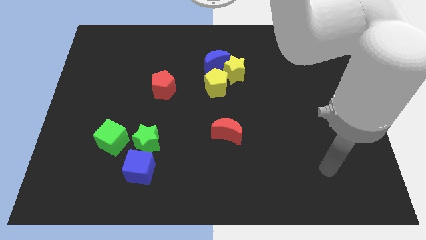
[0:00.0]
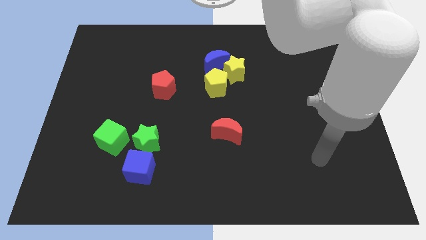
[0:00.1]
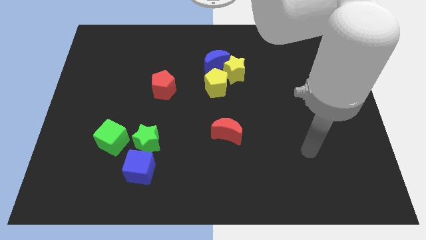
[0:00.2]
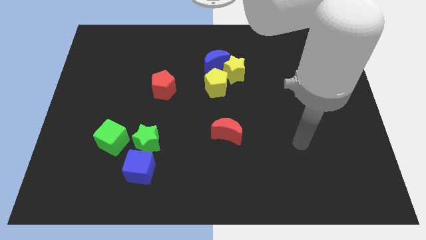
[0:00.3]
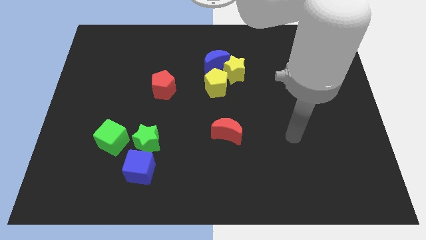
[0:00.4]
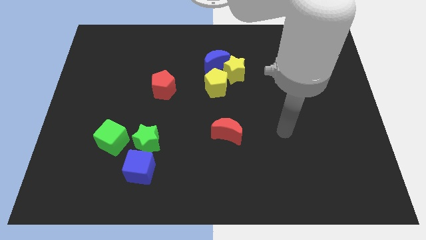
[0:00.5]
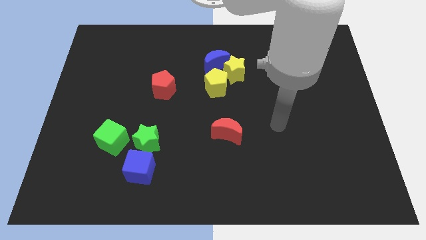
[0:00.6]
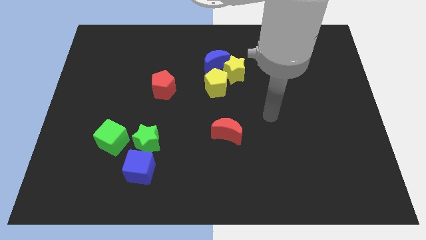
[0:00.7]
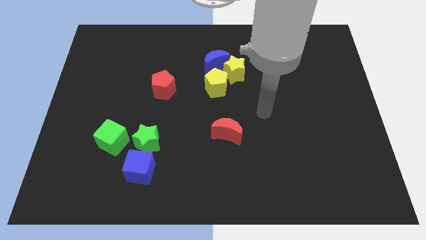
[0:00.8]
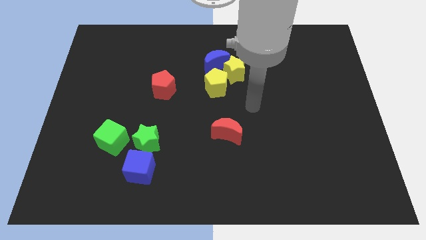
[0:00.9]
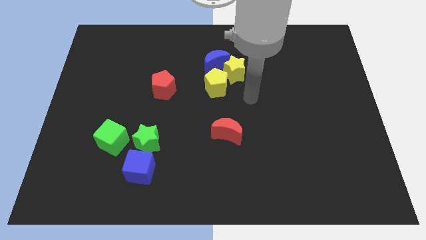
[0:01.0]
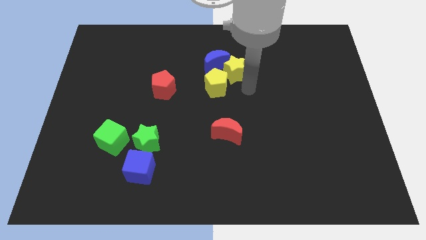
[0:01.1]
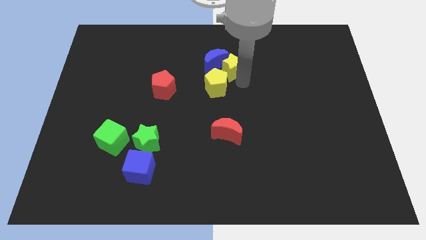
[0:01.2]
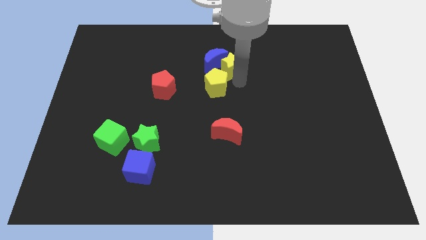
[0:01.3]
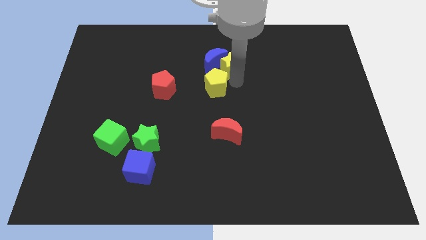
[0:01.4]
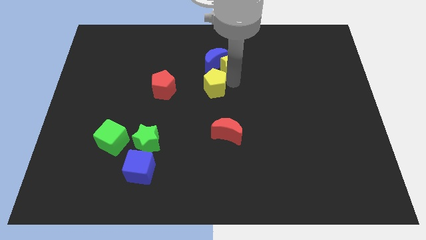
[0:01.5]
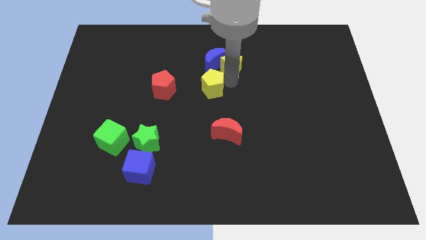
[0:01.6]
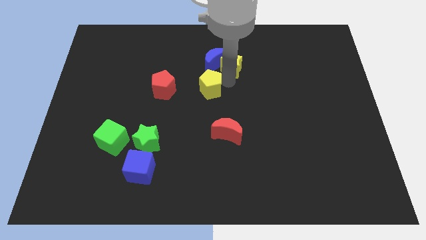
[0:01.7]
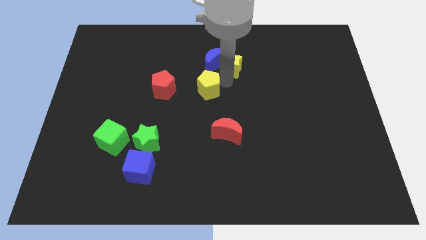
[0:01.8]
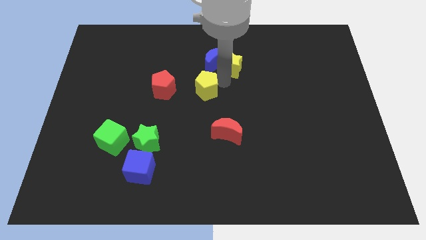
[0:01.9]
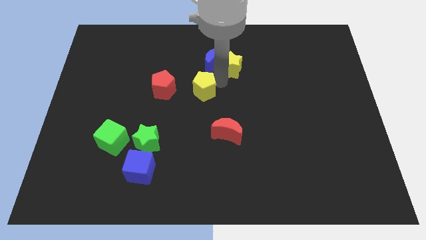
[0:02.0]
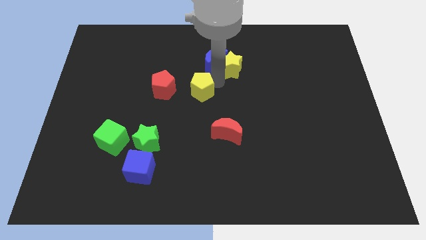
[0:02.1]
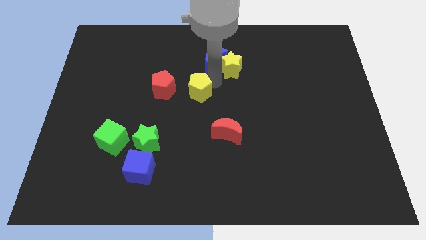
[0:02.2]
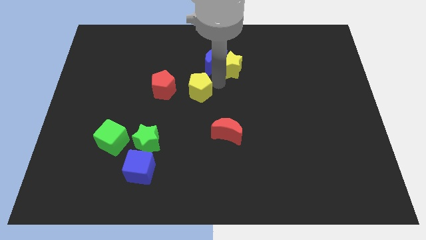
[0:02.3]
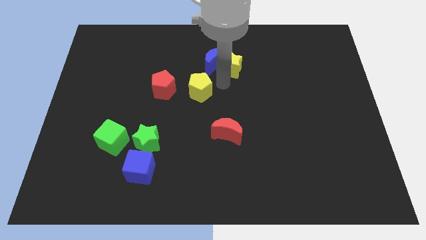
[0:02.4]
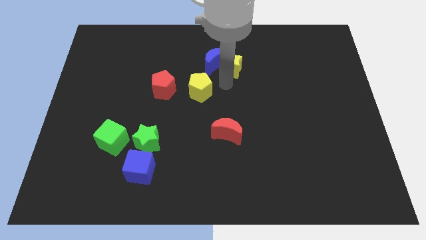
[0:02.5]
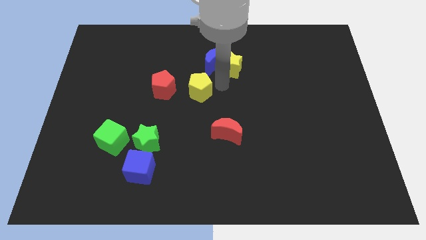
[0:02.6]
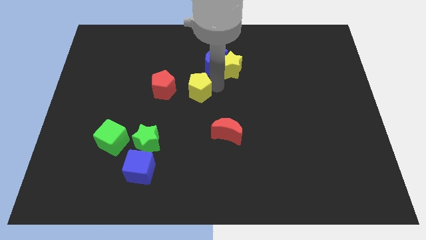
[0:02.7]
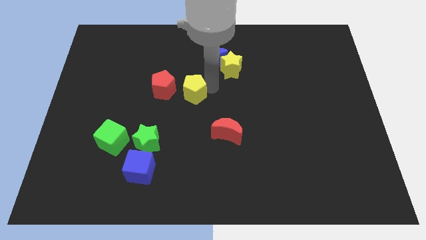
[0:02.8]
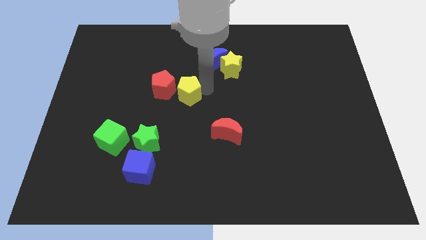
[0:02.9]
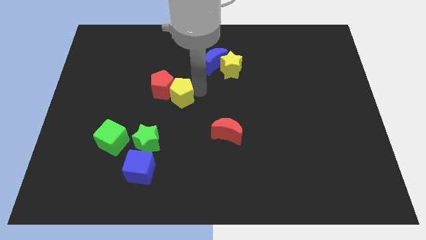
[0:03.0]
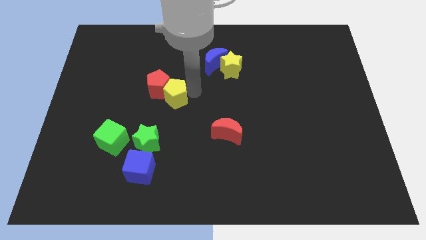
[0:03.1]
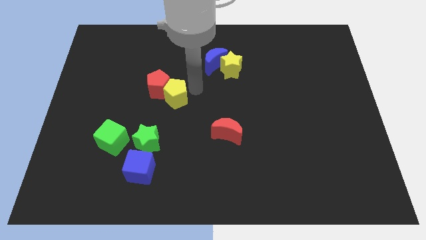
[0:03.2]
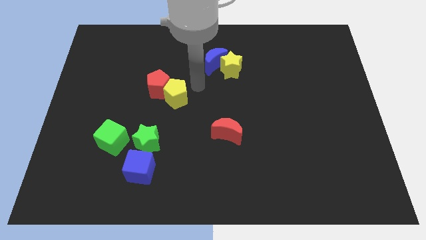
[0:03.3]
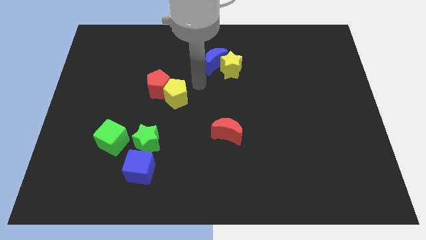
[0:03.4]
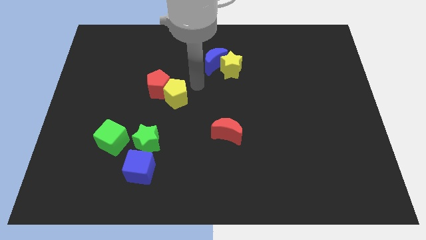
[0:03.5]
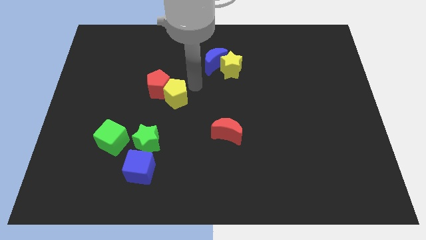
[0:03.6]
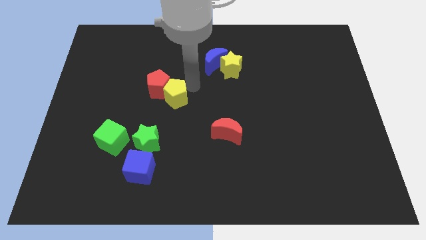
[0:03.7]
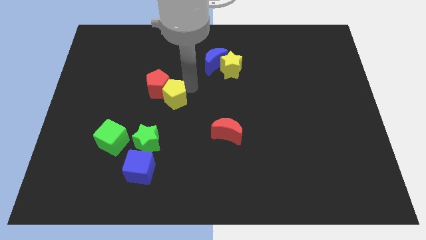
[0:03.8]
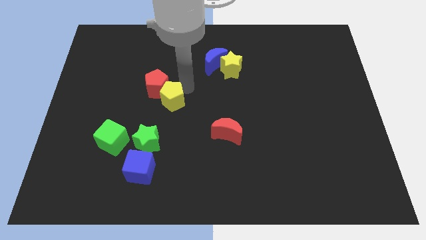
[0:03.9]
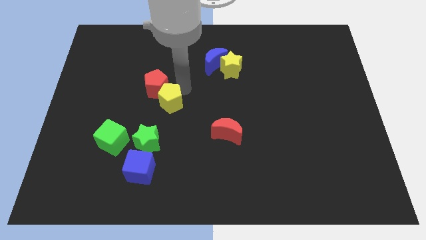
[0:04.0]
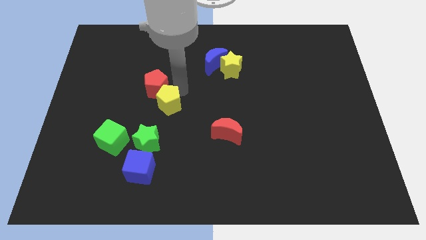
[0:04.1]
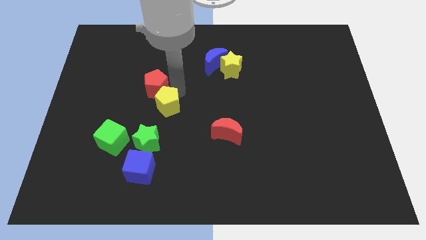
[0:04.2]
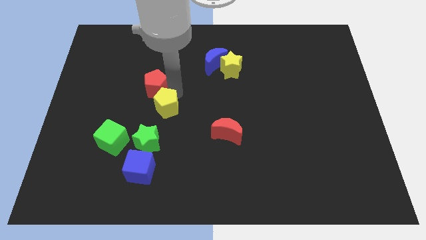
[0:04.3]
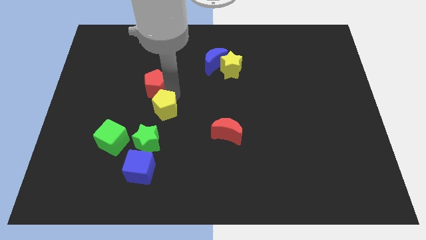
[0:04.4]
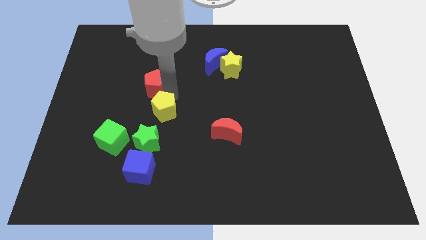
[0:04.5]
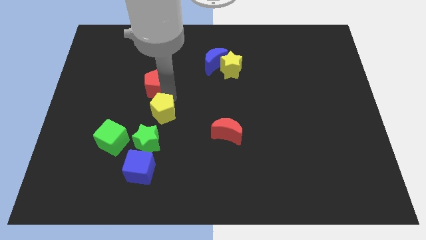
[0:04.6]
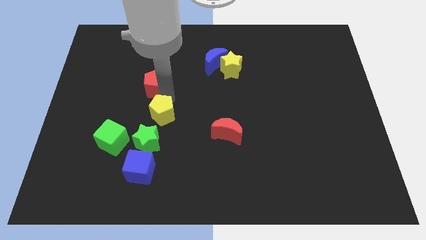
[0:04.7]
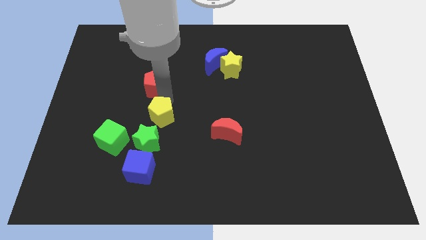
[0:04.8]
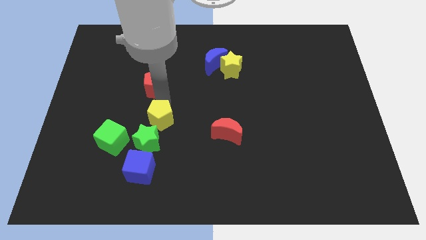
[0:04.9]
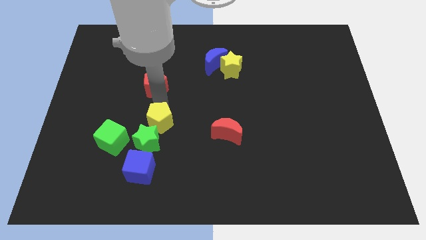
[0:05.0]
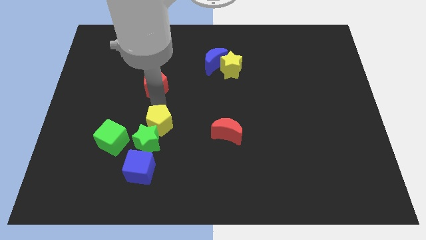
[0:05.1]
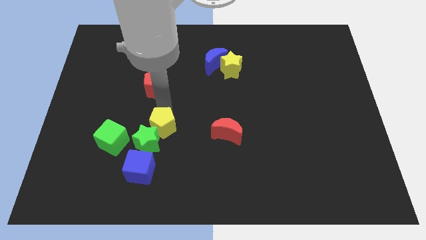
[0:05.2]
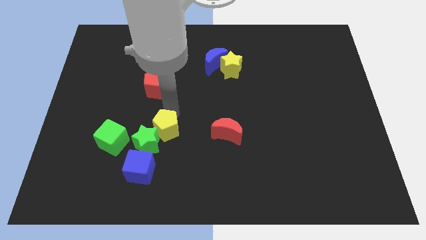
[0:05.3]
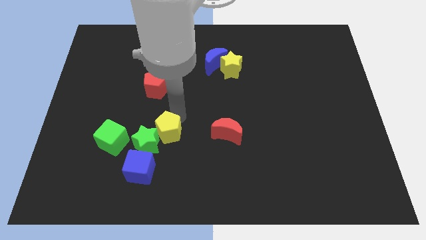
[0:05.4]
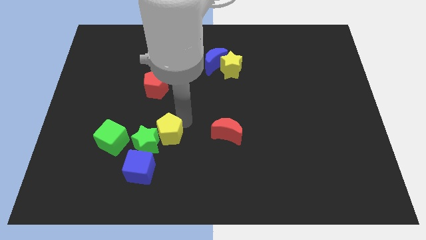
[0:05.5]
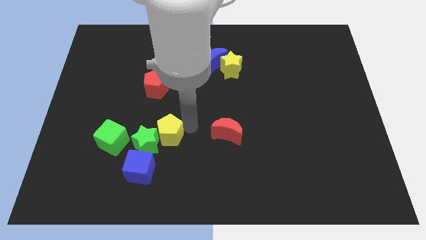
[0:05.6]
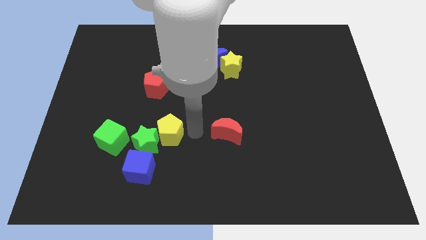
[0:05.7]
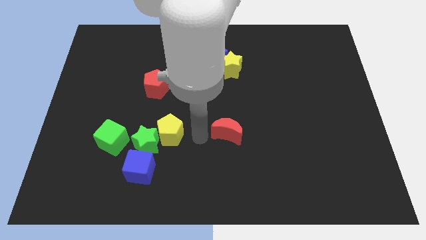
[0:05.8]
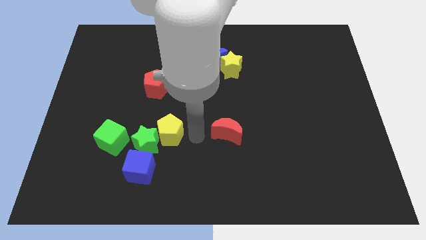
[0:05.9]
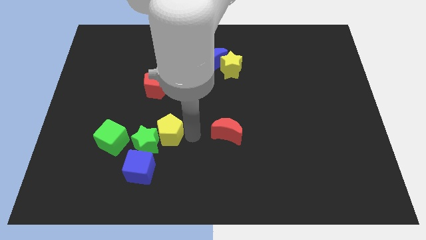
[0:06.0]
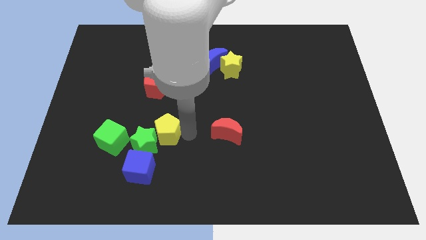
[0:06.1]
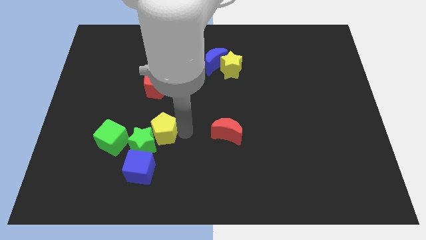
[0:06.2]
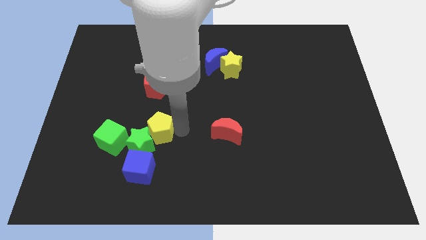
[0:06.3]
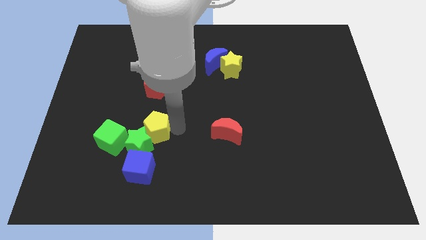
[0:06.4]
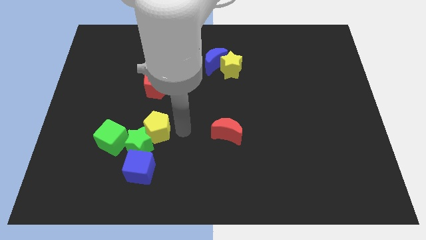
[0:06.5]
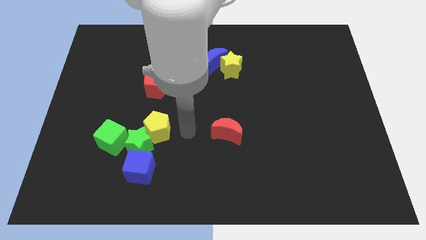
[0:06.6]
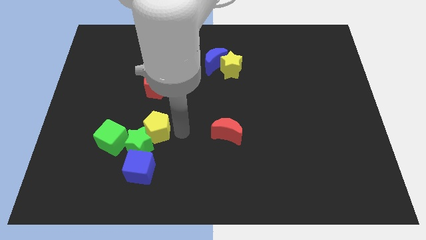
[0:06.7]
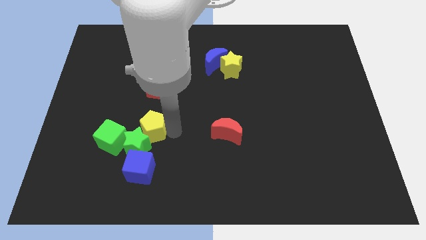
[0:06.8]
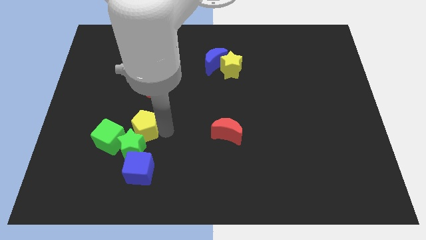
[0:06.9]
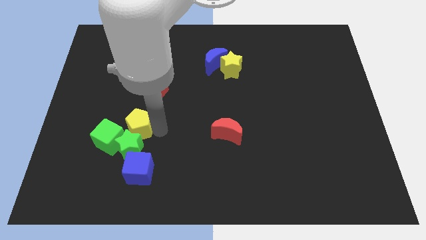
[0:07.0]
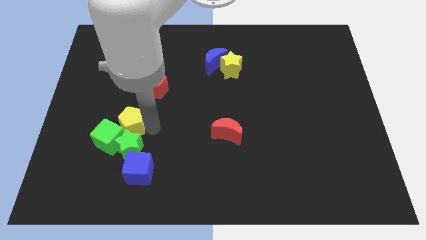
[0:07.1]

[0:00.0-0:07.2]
slide the yellow pentagon towards the green cube
